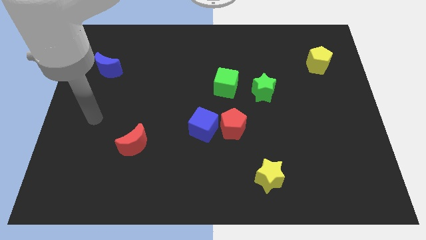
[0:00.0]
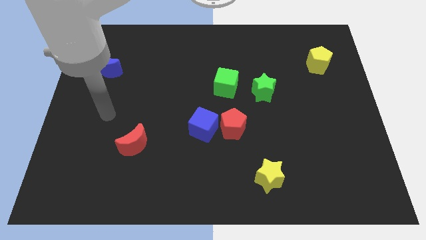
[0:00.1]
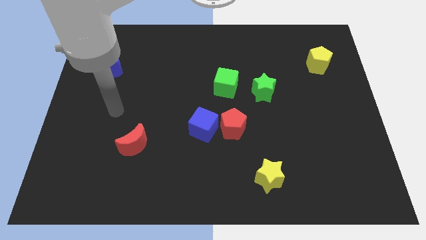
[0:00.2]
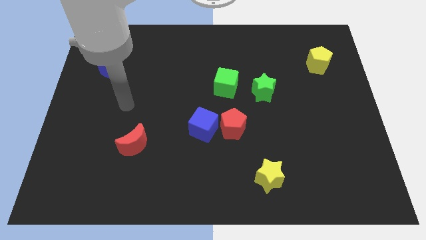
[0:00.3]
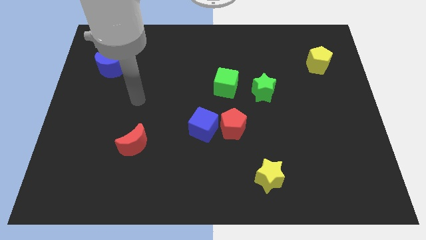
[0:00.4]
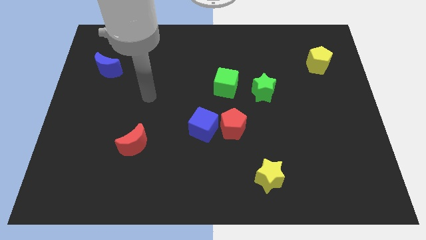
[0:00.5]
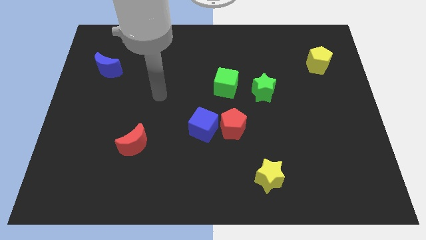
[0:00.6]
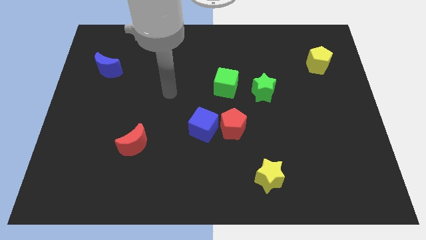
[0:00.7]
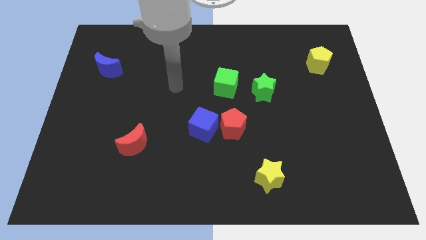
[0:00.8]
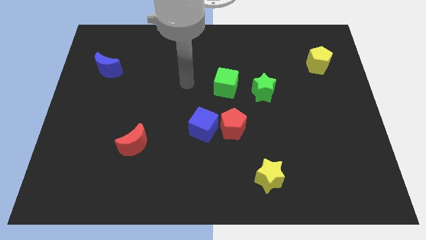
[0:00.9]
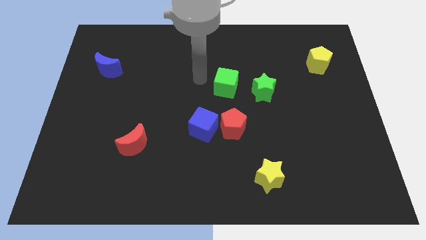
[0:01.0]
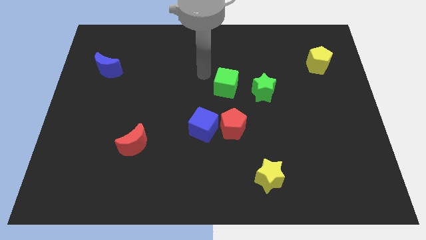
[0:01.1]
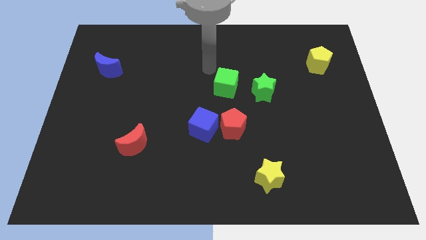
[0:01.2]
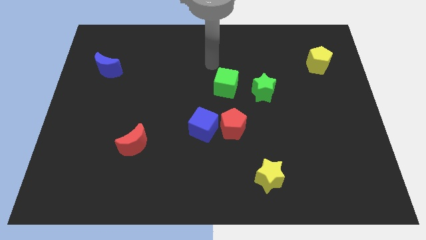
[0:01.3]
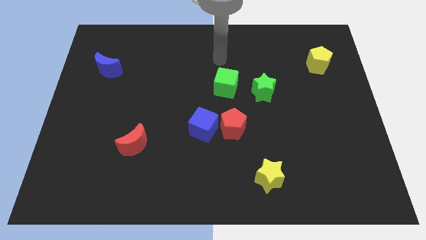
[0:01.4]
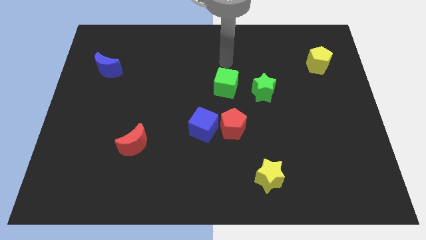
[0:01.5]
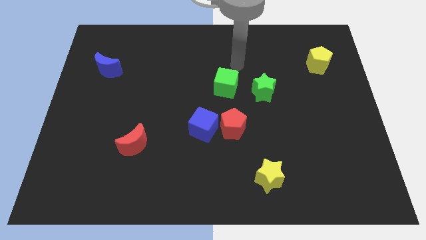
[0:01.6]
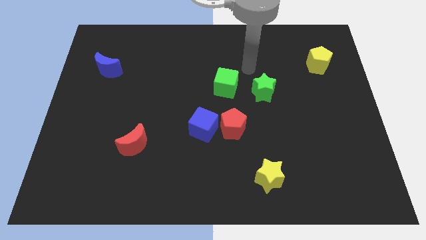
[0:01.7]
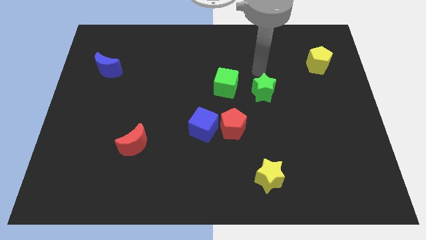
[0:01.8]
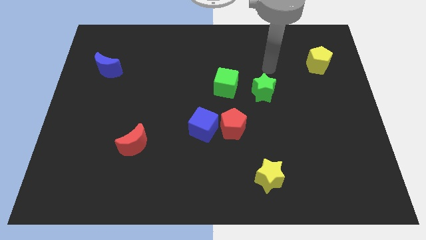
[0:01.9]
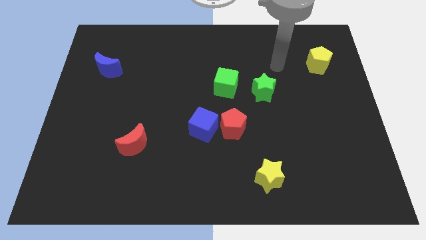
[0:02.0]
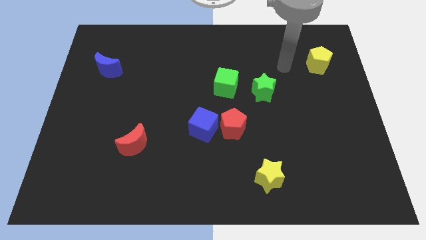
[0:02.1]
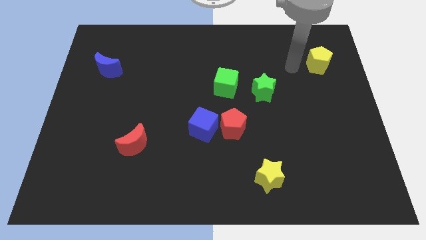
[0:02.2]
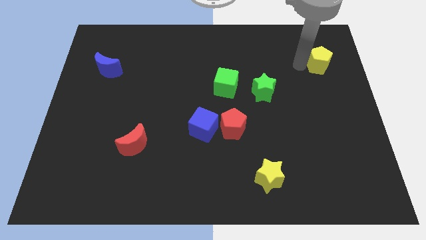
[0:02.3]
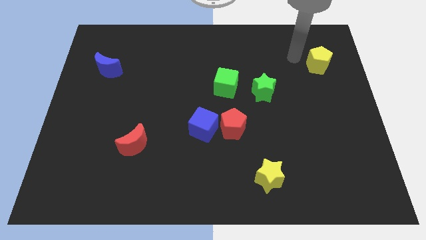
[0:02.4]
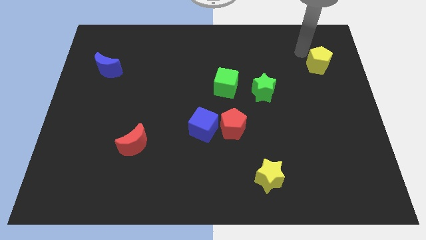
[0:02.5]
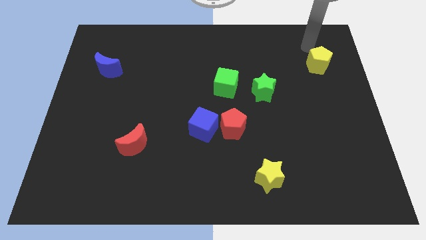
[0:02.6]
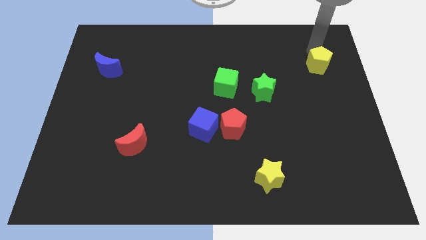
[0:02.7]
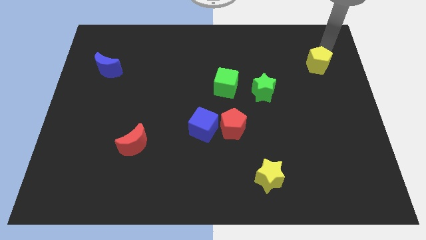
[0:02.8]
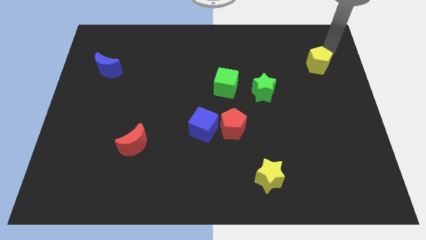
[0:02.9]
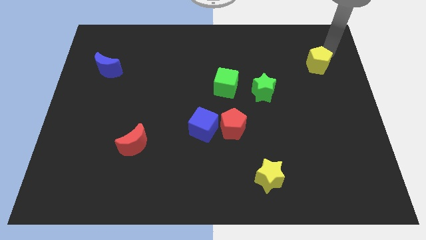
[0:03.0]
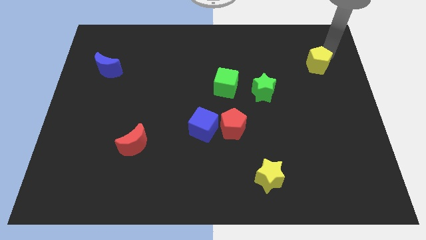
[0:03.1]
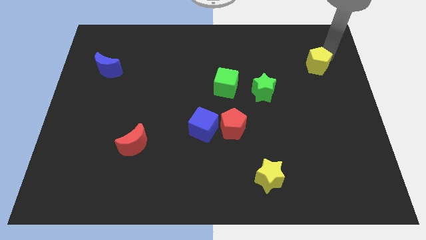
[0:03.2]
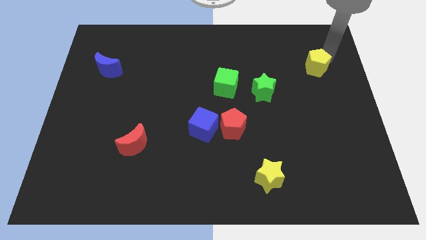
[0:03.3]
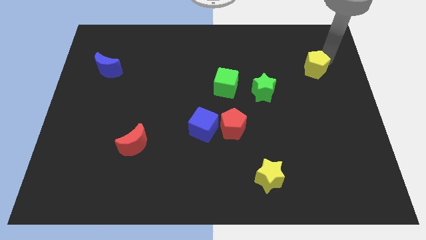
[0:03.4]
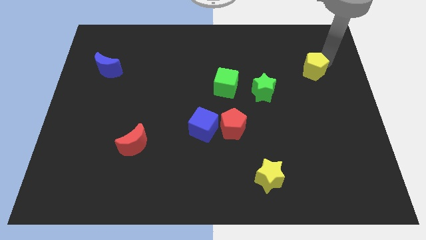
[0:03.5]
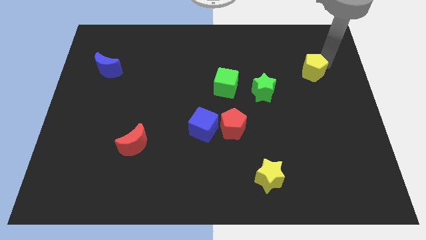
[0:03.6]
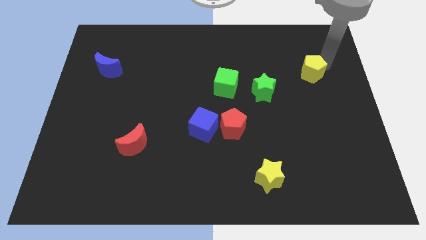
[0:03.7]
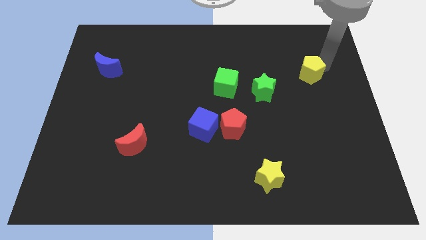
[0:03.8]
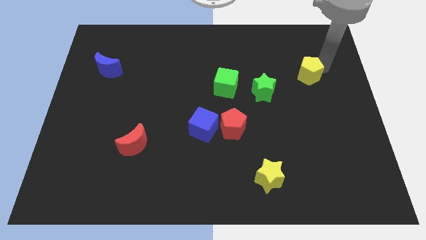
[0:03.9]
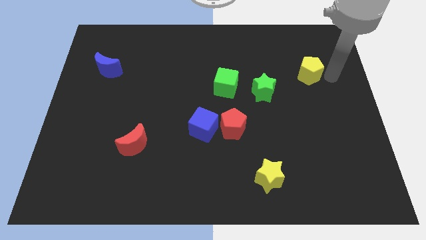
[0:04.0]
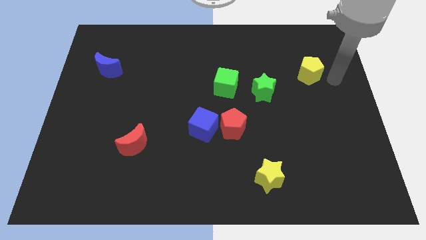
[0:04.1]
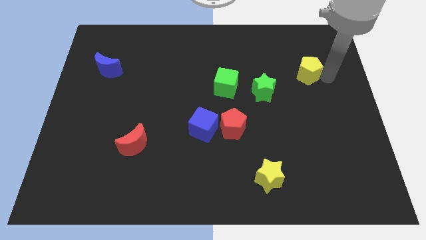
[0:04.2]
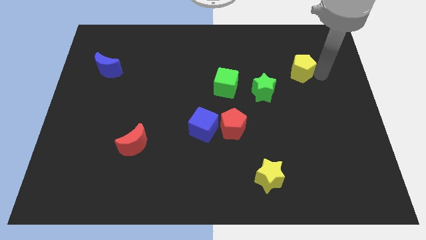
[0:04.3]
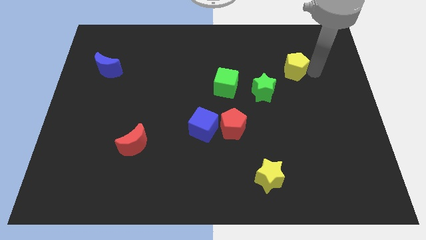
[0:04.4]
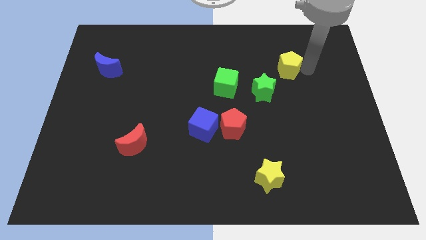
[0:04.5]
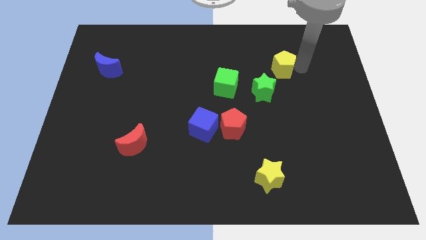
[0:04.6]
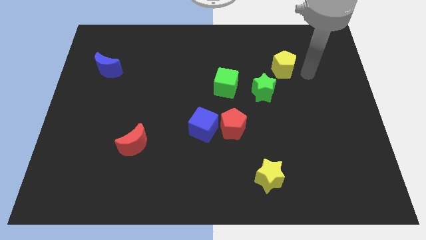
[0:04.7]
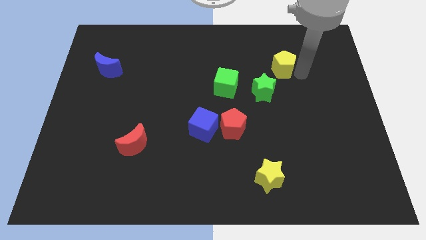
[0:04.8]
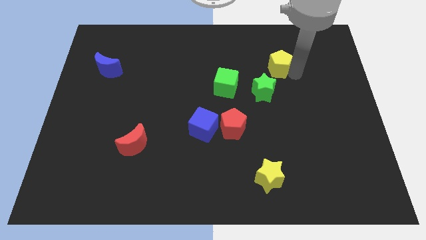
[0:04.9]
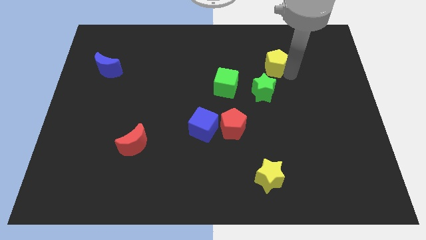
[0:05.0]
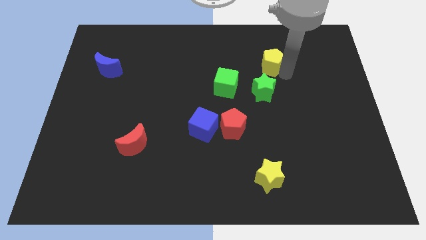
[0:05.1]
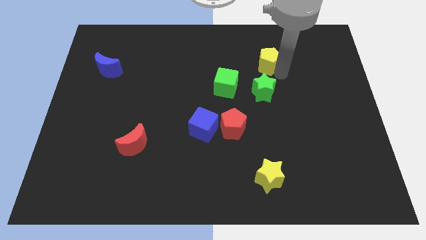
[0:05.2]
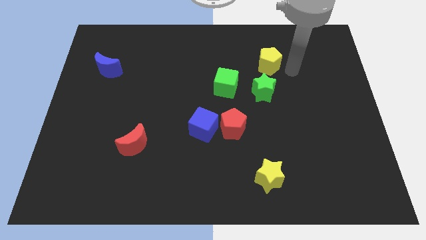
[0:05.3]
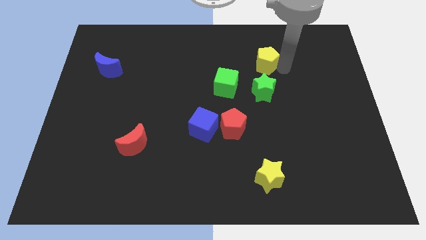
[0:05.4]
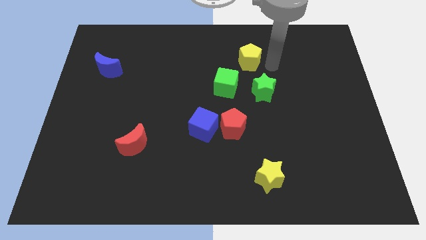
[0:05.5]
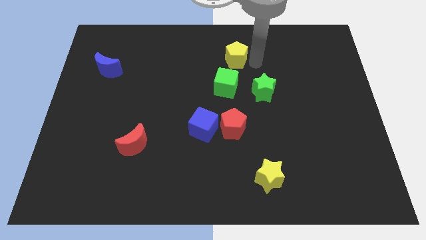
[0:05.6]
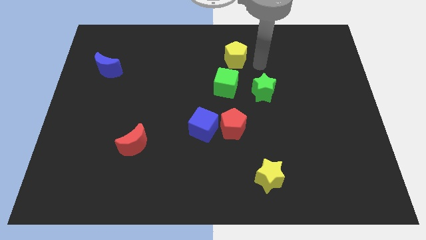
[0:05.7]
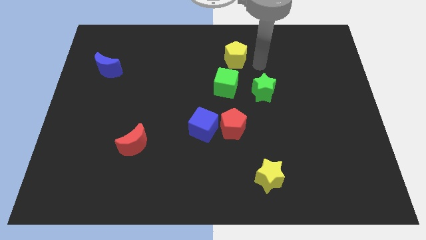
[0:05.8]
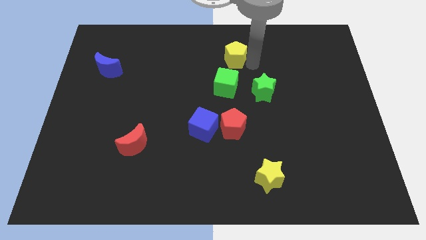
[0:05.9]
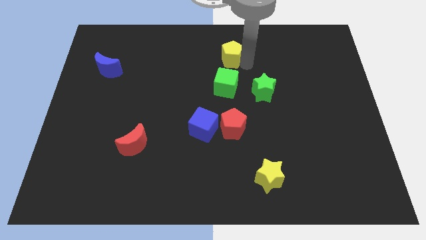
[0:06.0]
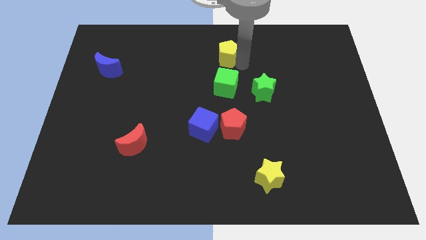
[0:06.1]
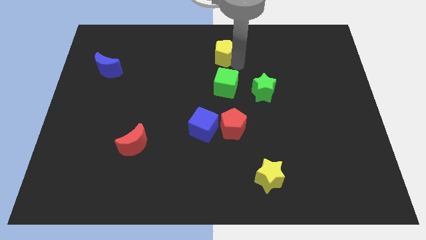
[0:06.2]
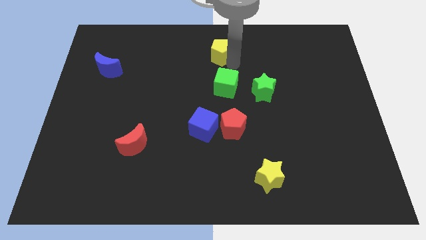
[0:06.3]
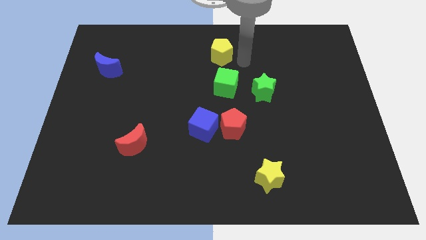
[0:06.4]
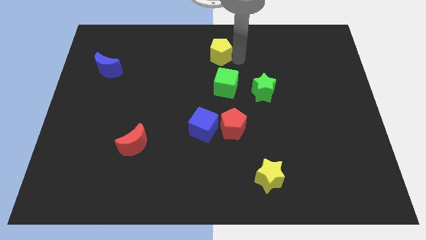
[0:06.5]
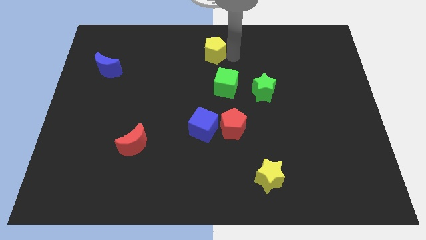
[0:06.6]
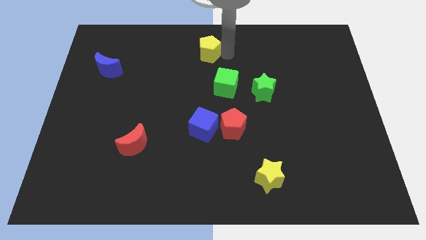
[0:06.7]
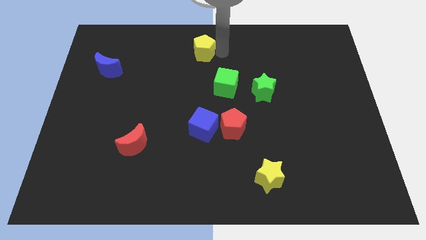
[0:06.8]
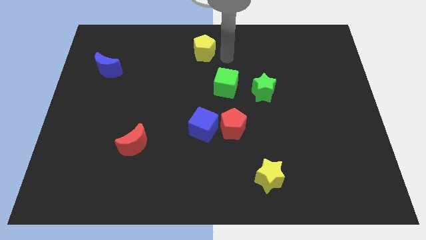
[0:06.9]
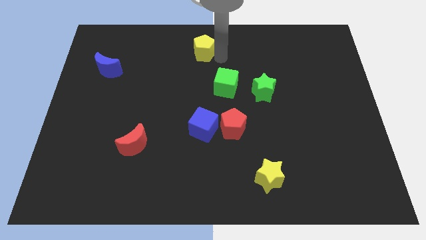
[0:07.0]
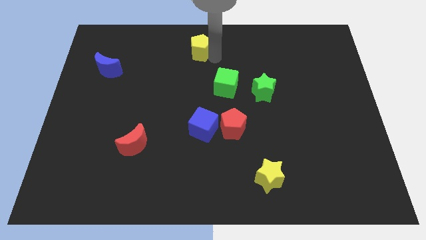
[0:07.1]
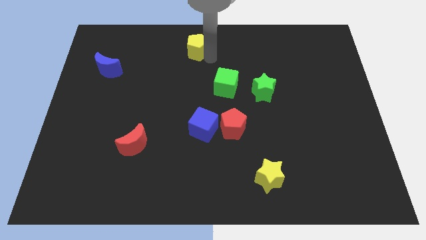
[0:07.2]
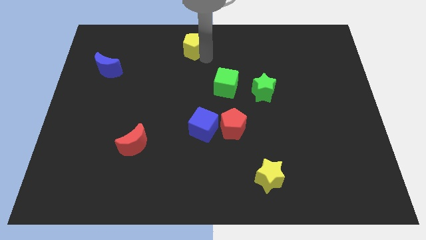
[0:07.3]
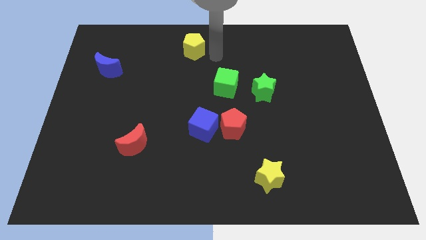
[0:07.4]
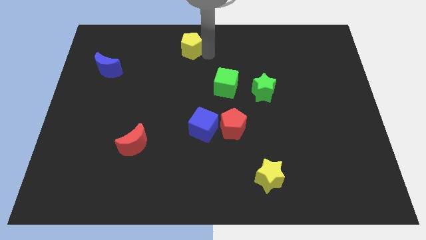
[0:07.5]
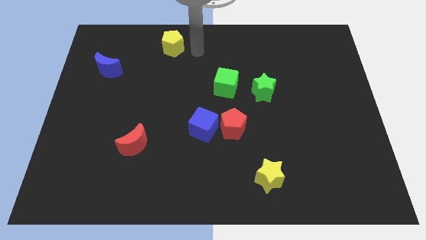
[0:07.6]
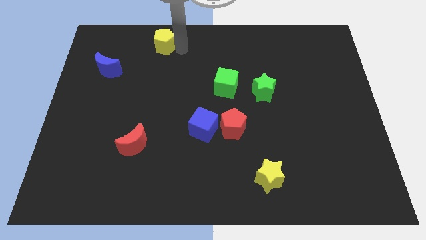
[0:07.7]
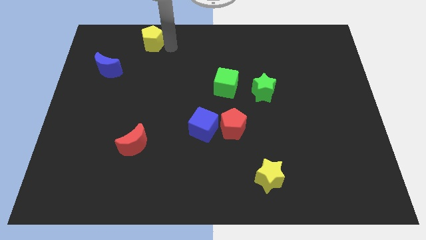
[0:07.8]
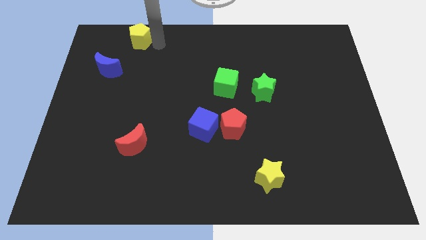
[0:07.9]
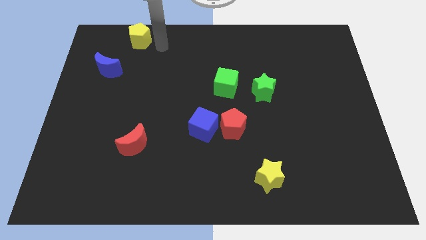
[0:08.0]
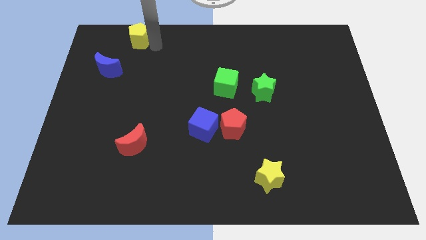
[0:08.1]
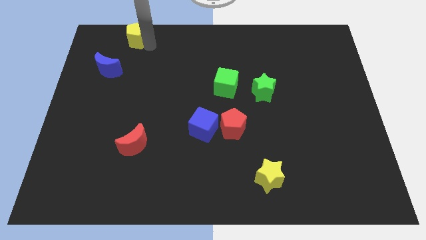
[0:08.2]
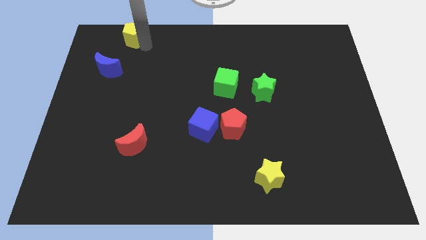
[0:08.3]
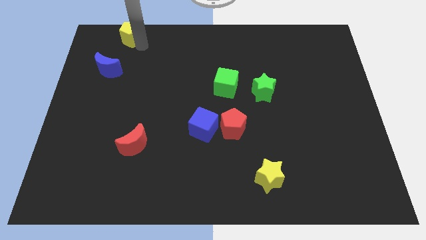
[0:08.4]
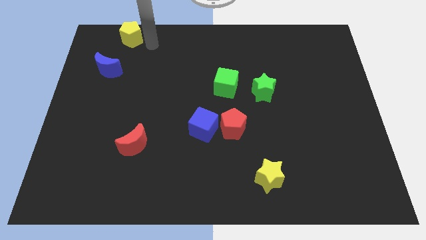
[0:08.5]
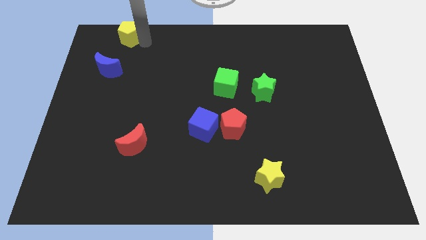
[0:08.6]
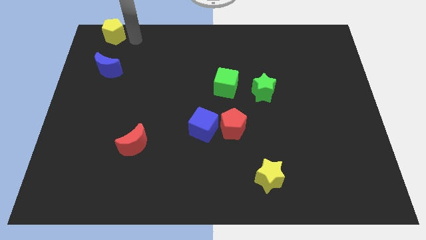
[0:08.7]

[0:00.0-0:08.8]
slide the yellow pentagon to the top left of the board
